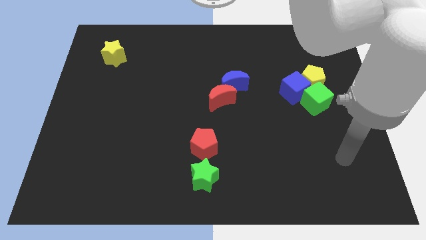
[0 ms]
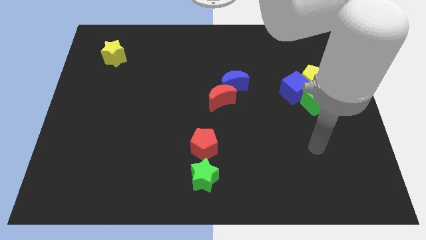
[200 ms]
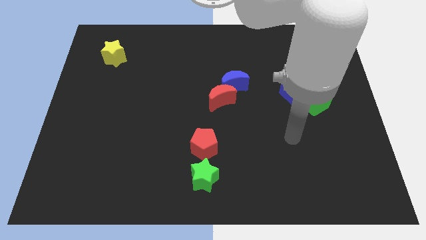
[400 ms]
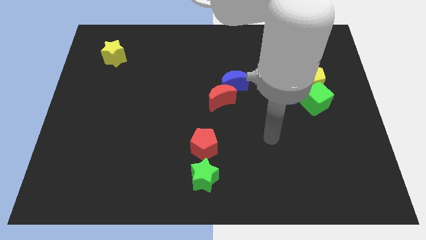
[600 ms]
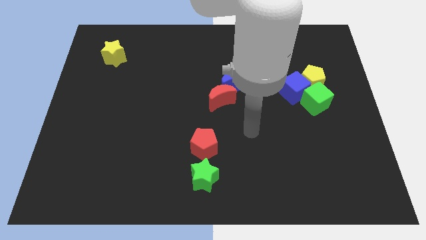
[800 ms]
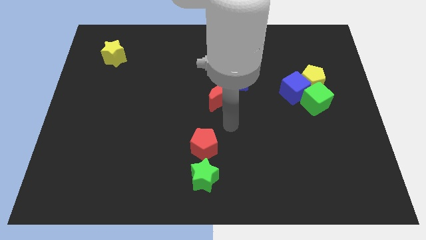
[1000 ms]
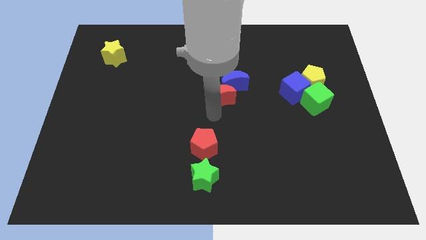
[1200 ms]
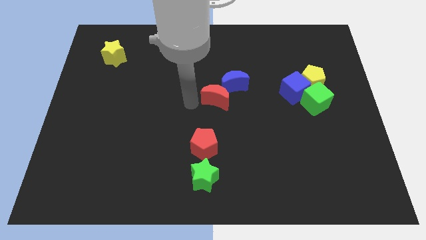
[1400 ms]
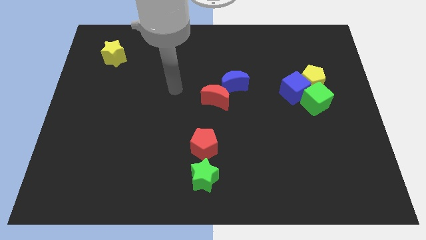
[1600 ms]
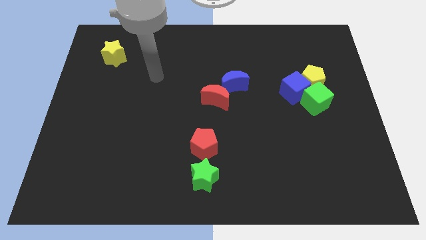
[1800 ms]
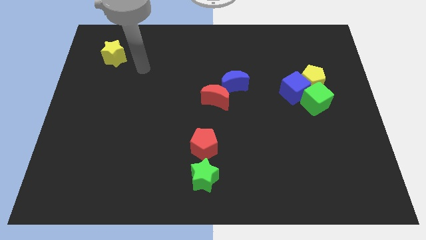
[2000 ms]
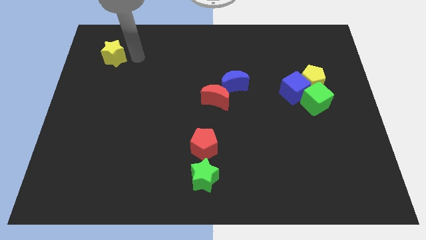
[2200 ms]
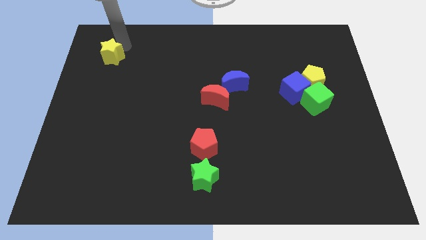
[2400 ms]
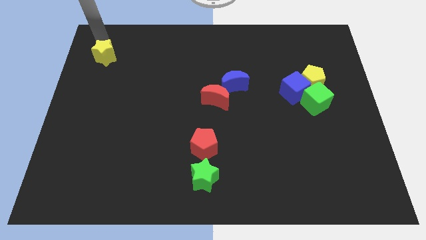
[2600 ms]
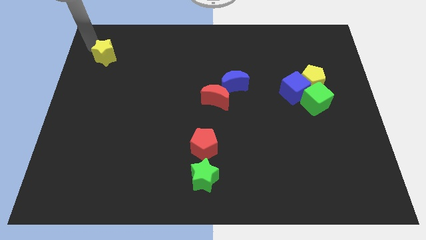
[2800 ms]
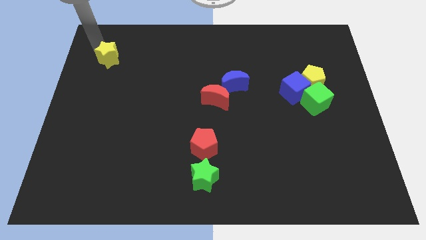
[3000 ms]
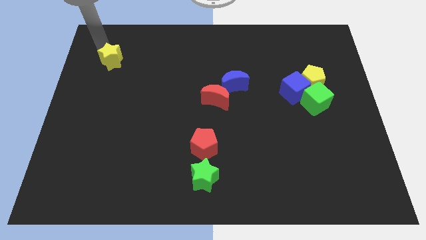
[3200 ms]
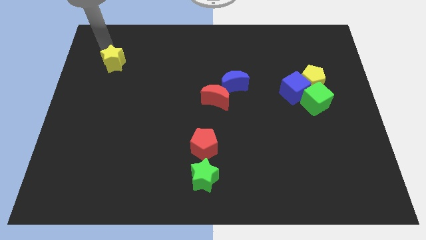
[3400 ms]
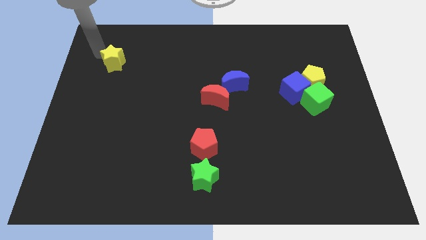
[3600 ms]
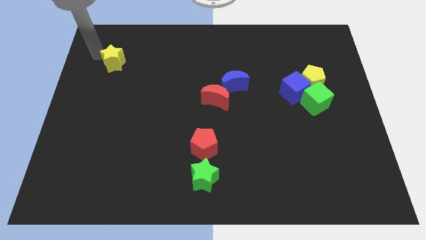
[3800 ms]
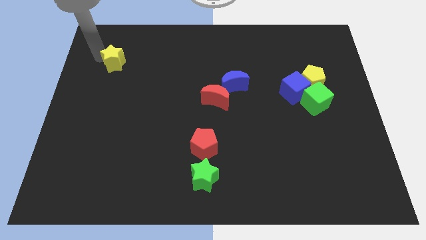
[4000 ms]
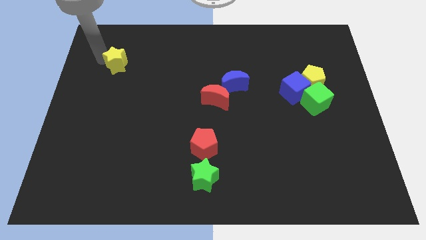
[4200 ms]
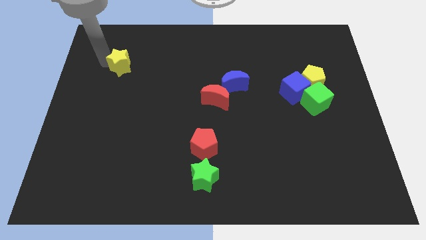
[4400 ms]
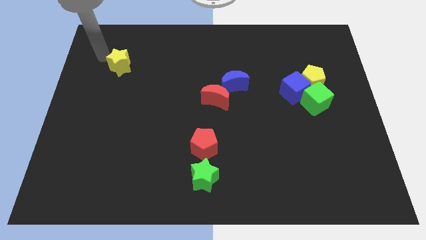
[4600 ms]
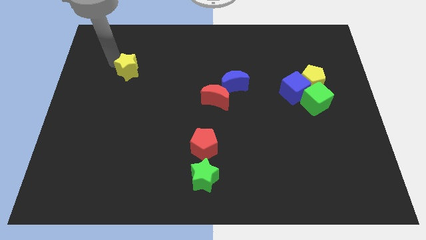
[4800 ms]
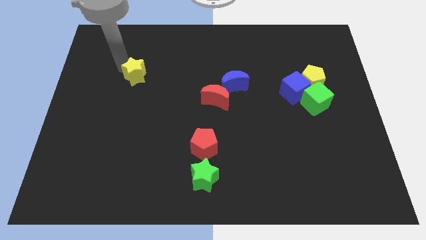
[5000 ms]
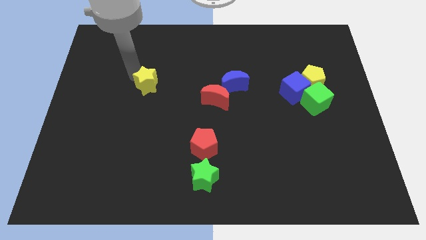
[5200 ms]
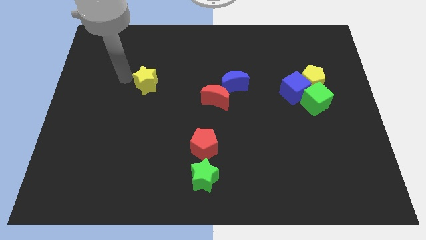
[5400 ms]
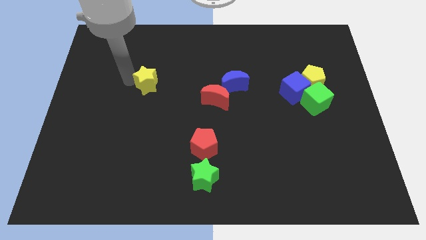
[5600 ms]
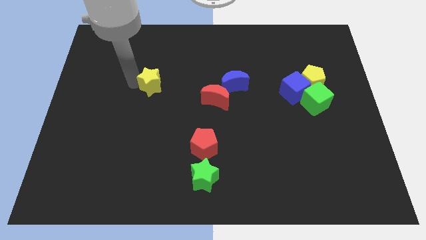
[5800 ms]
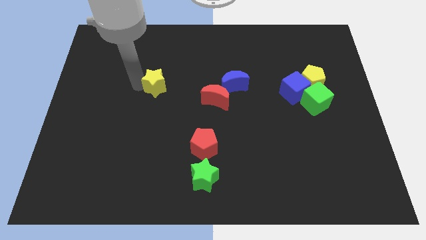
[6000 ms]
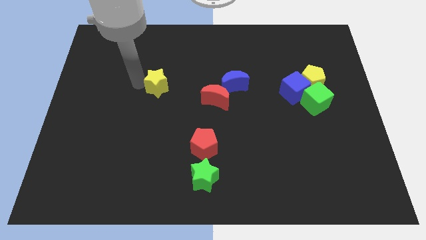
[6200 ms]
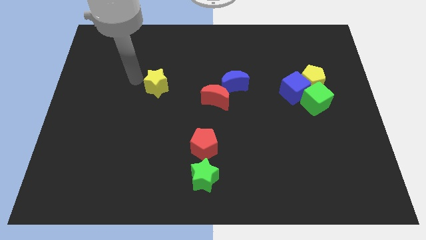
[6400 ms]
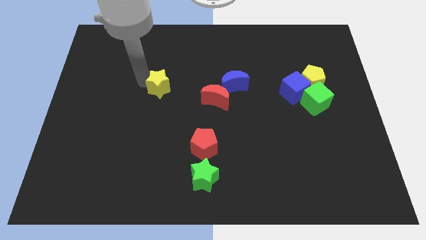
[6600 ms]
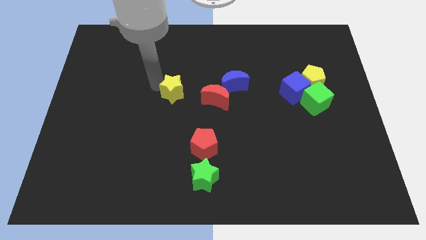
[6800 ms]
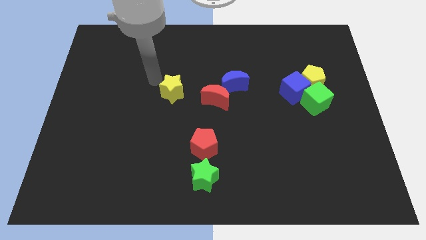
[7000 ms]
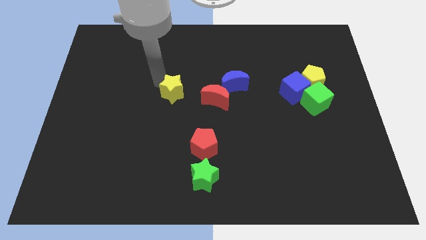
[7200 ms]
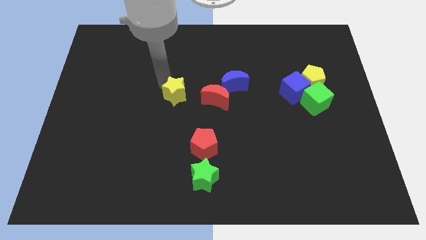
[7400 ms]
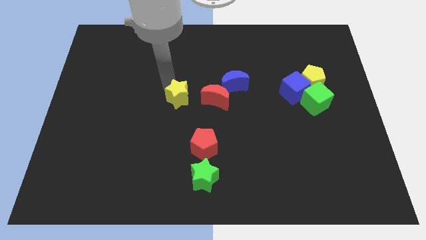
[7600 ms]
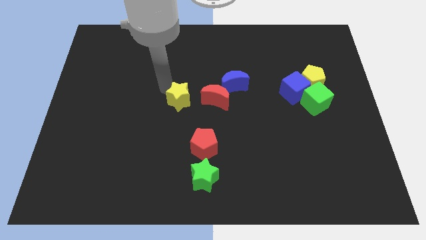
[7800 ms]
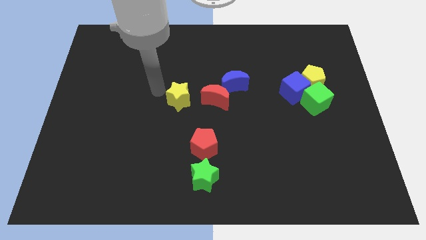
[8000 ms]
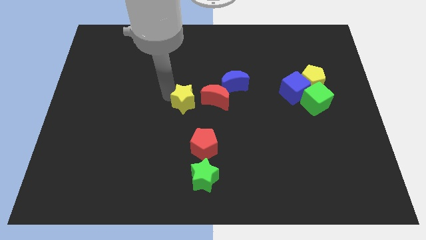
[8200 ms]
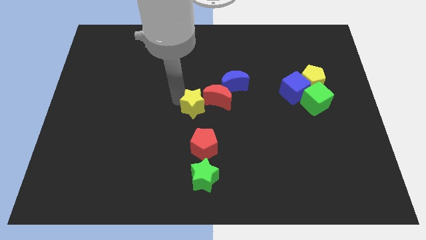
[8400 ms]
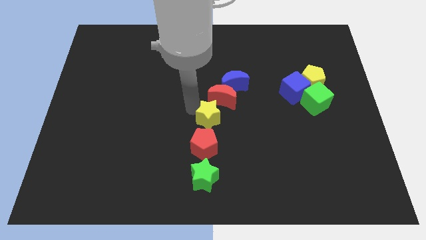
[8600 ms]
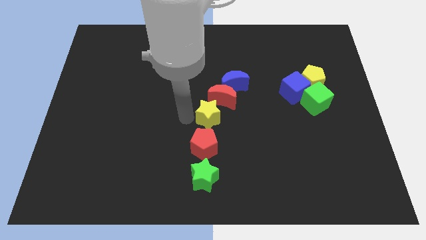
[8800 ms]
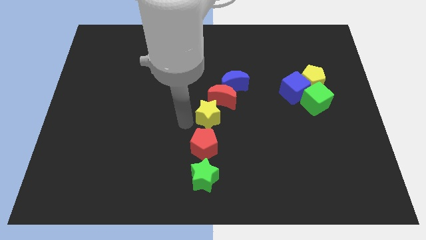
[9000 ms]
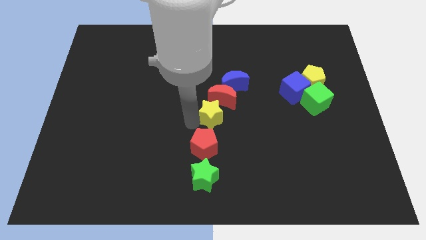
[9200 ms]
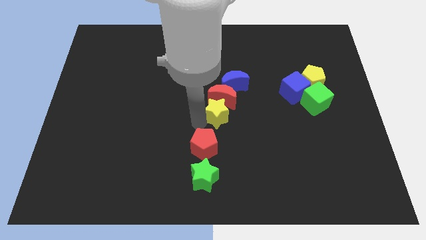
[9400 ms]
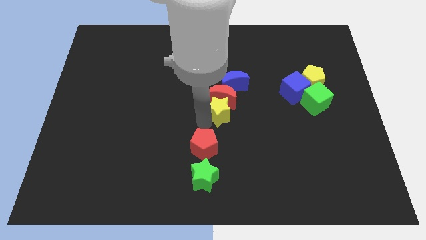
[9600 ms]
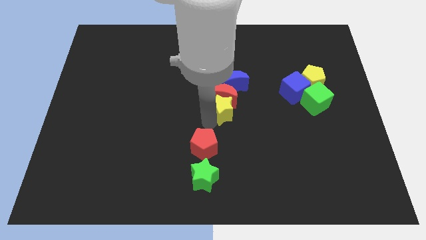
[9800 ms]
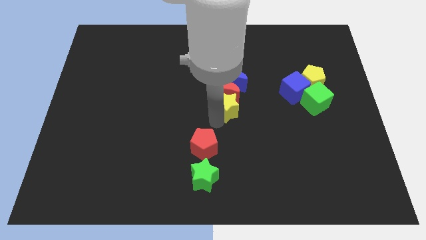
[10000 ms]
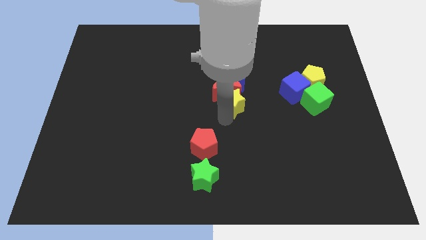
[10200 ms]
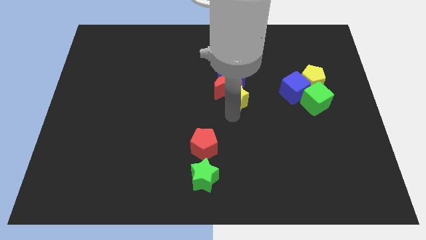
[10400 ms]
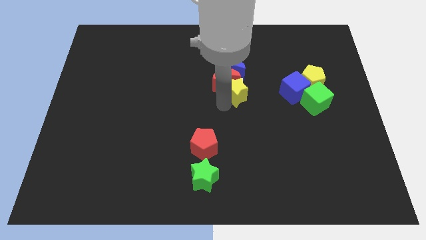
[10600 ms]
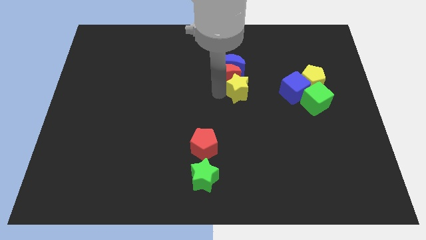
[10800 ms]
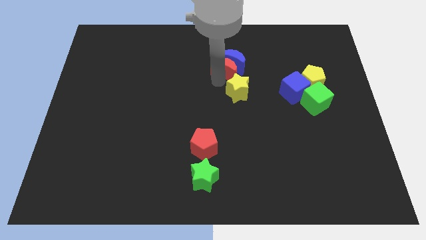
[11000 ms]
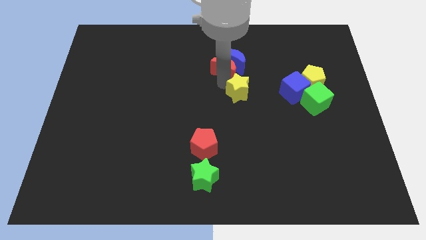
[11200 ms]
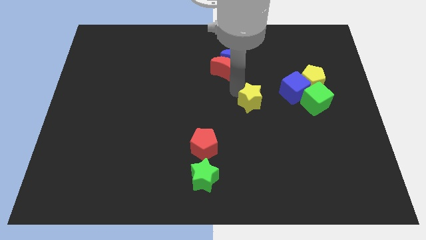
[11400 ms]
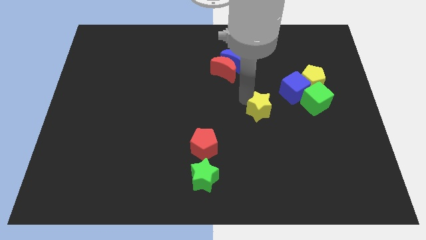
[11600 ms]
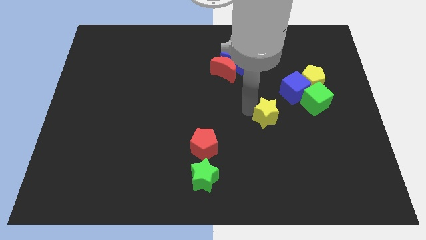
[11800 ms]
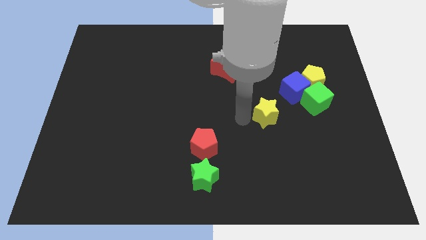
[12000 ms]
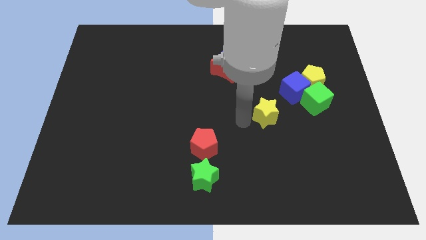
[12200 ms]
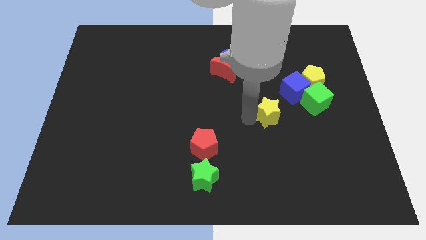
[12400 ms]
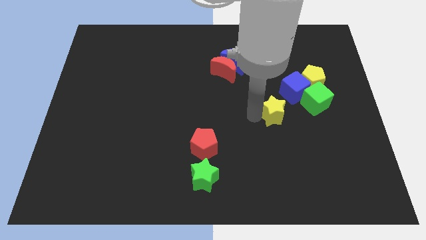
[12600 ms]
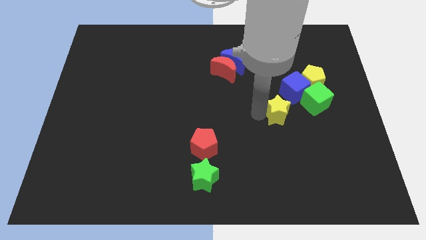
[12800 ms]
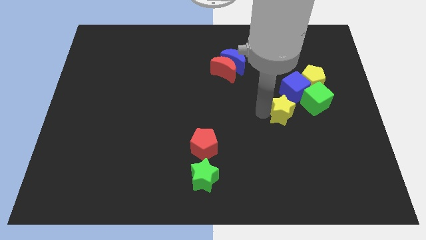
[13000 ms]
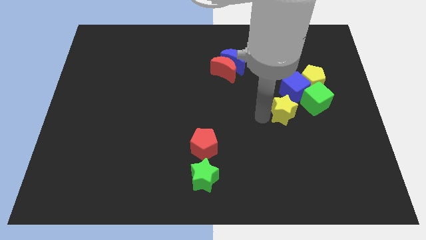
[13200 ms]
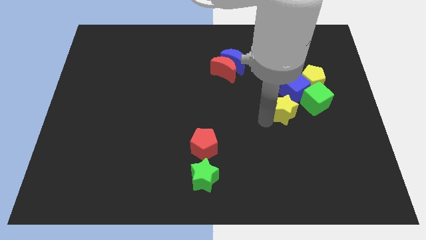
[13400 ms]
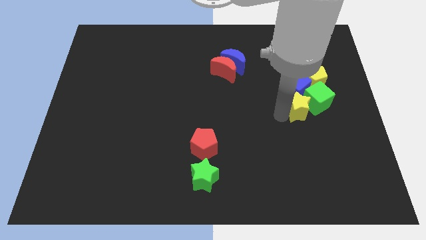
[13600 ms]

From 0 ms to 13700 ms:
move the yellow star to the green cube
